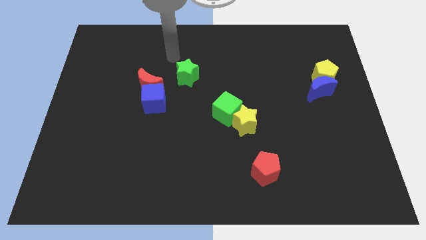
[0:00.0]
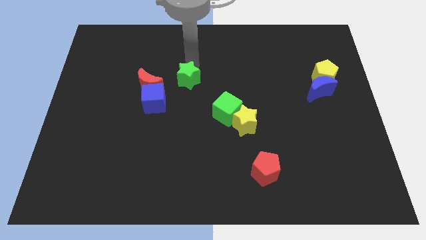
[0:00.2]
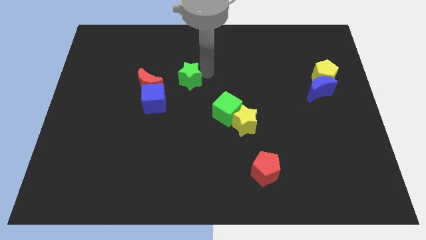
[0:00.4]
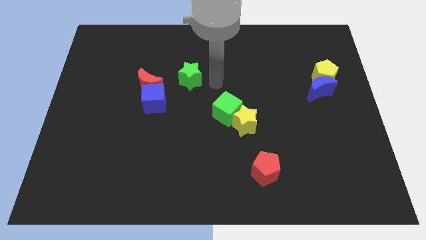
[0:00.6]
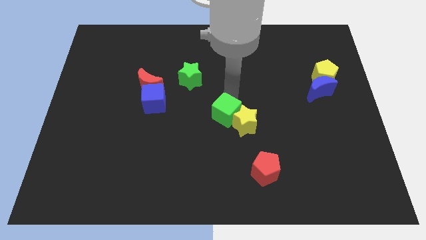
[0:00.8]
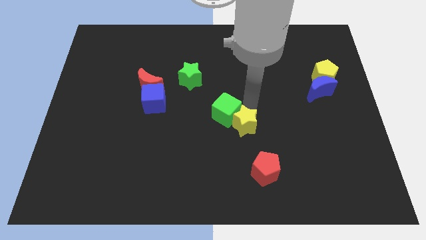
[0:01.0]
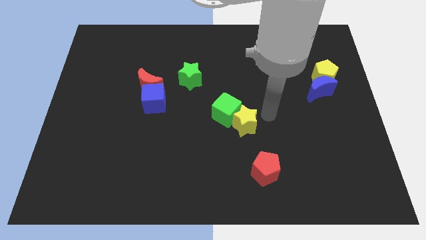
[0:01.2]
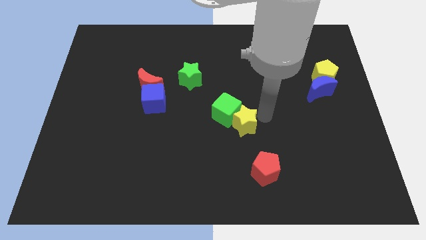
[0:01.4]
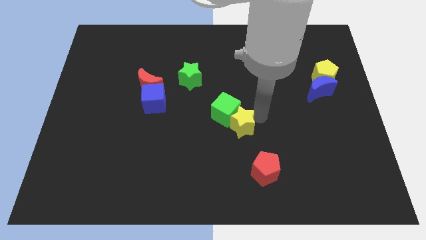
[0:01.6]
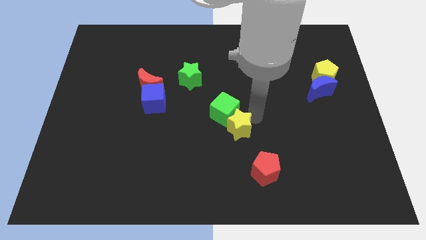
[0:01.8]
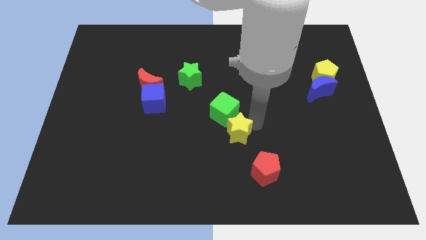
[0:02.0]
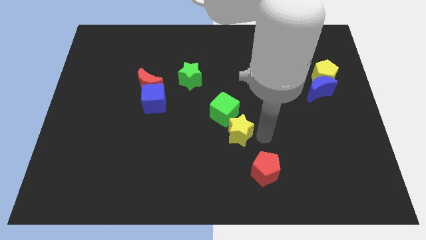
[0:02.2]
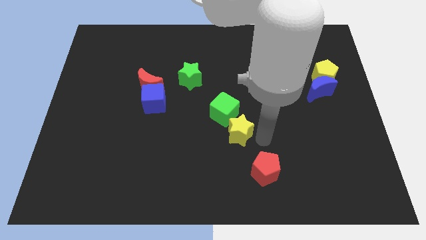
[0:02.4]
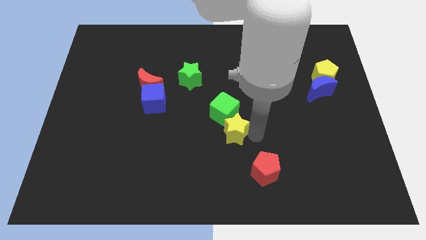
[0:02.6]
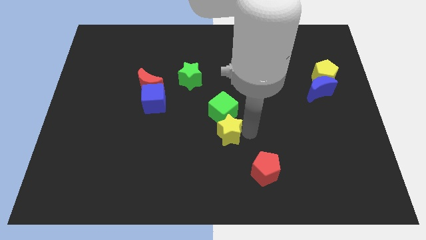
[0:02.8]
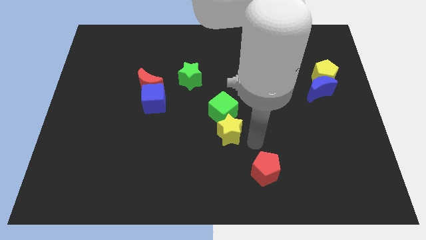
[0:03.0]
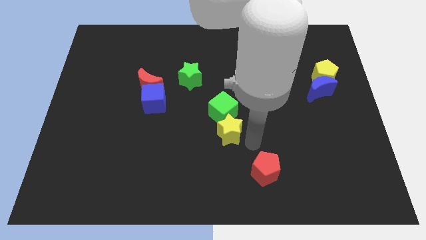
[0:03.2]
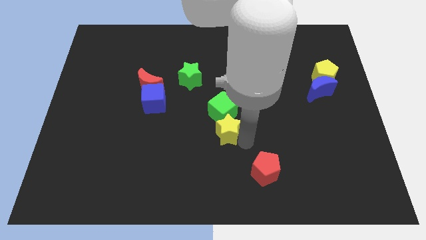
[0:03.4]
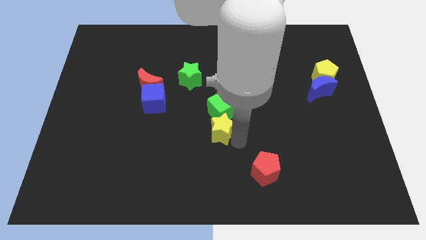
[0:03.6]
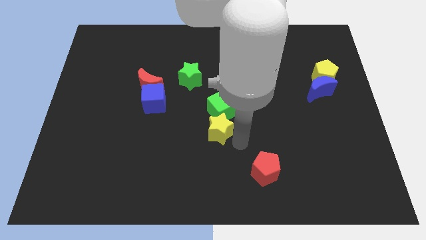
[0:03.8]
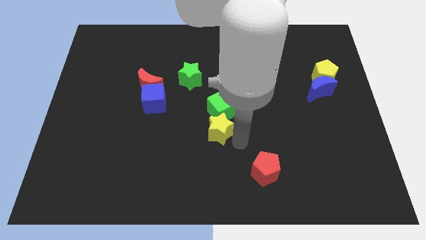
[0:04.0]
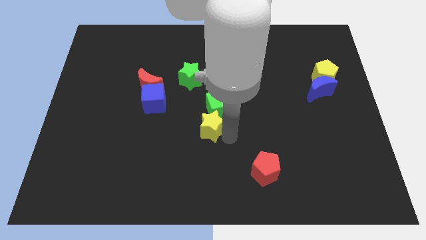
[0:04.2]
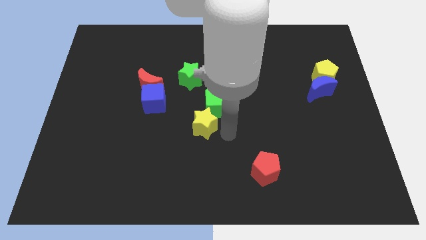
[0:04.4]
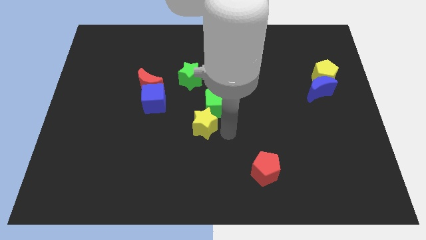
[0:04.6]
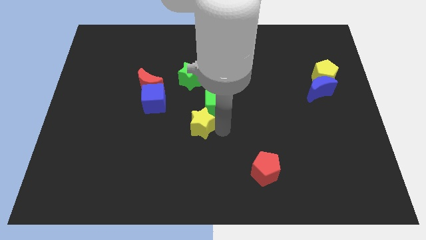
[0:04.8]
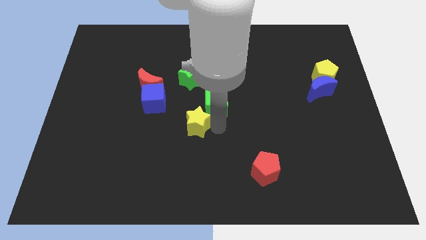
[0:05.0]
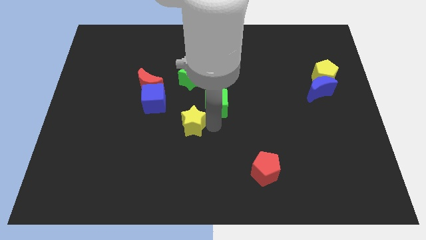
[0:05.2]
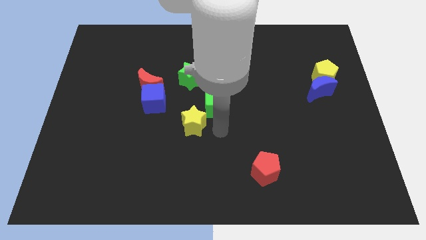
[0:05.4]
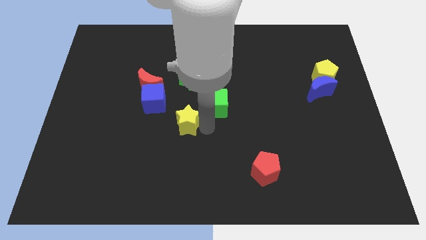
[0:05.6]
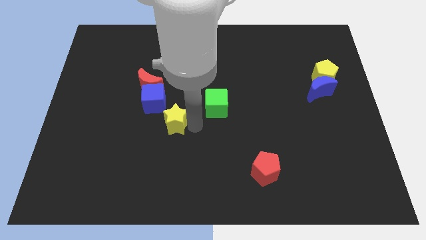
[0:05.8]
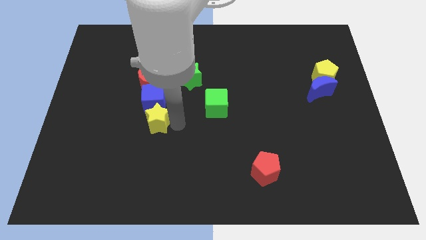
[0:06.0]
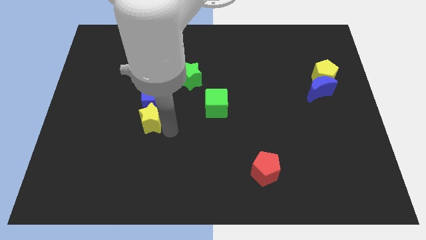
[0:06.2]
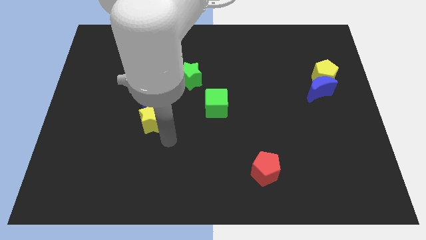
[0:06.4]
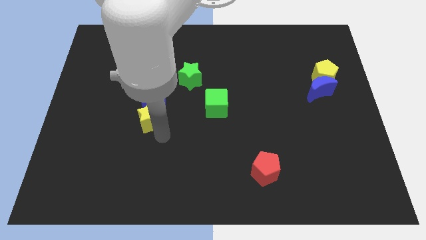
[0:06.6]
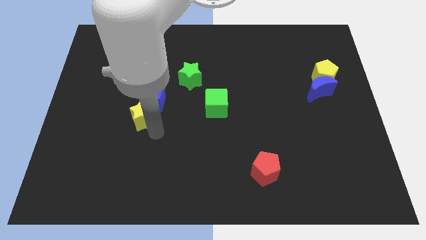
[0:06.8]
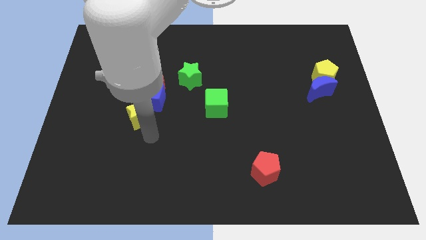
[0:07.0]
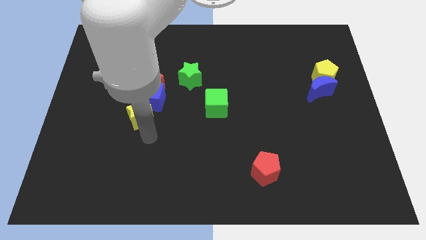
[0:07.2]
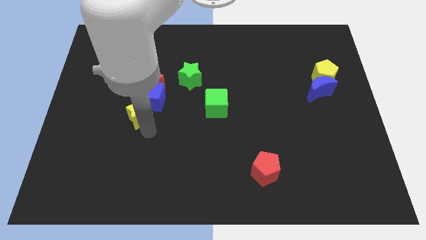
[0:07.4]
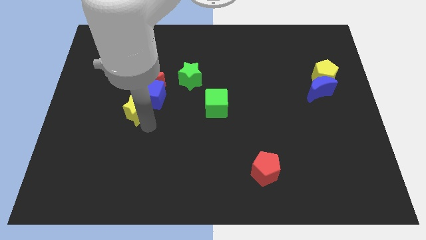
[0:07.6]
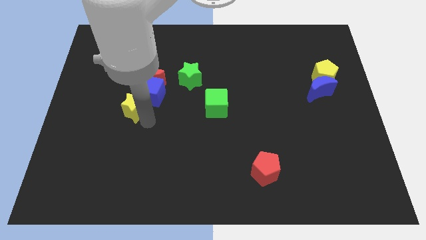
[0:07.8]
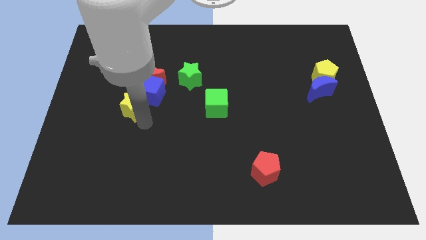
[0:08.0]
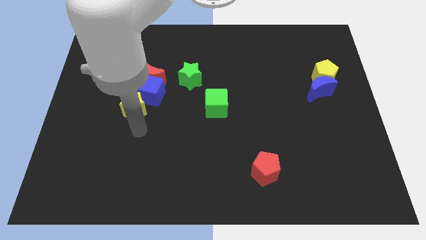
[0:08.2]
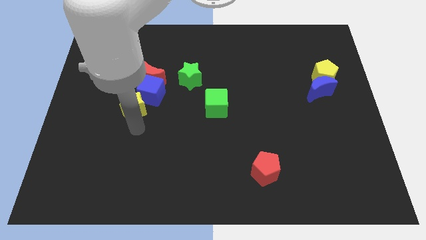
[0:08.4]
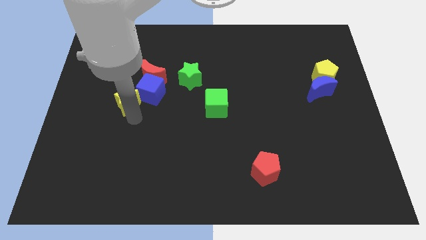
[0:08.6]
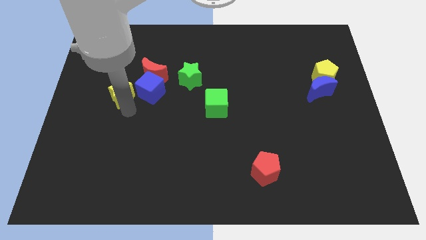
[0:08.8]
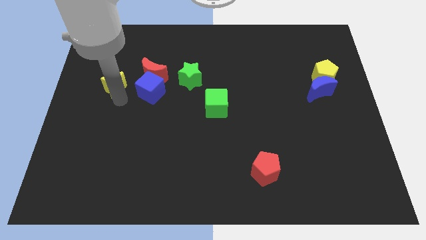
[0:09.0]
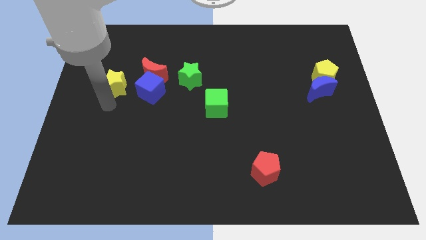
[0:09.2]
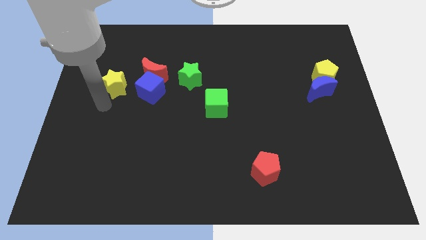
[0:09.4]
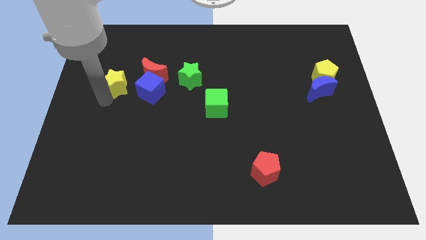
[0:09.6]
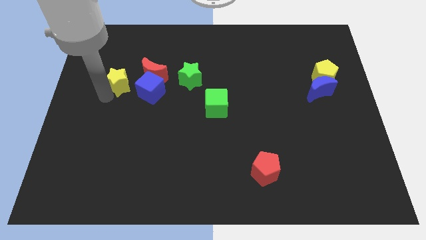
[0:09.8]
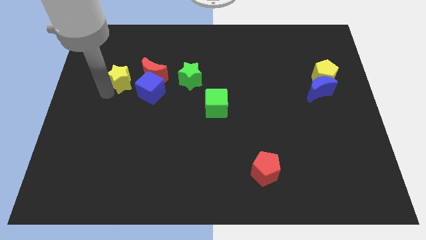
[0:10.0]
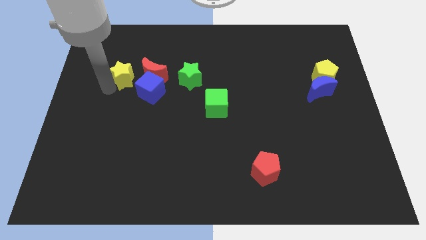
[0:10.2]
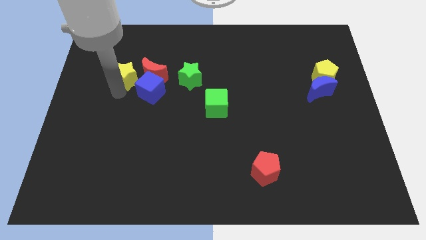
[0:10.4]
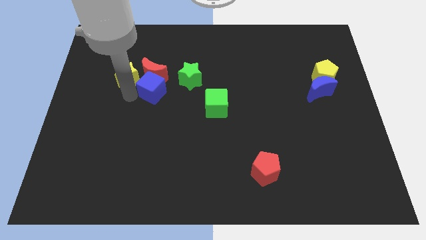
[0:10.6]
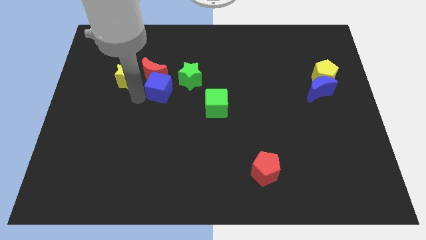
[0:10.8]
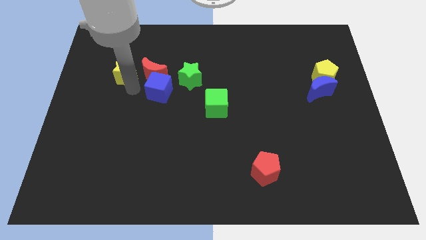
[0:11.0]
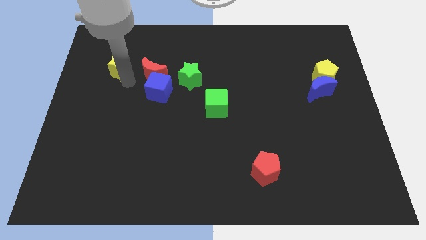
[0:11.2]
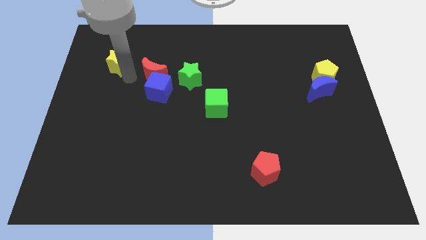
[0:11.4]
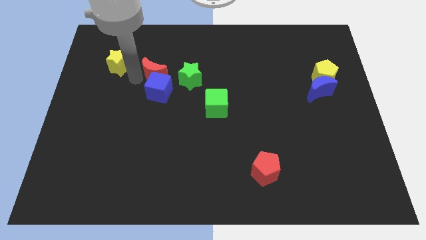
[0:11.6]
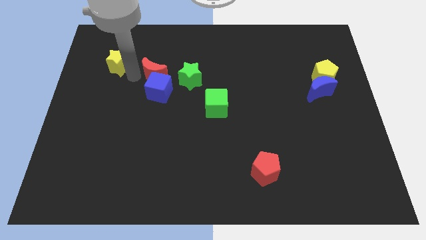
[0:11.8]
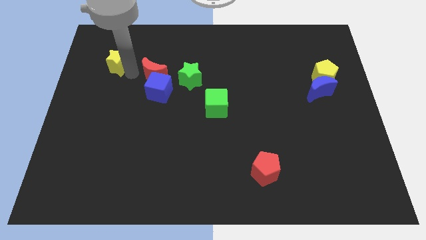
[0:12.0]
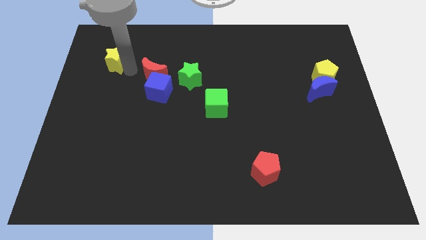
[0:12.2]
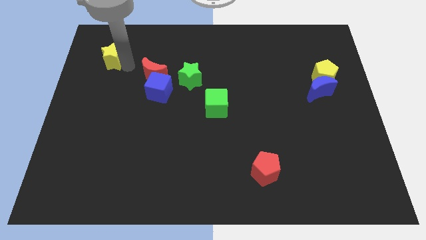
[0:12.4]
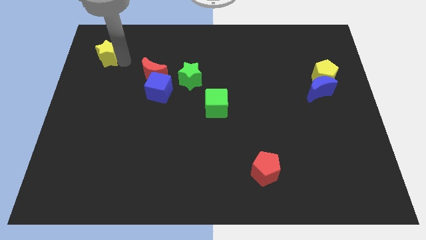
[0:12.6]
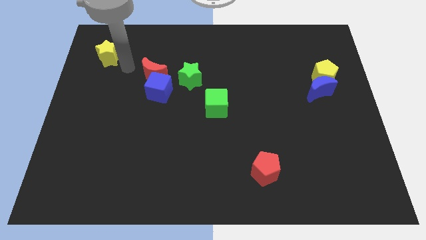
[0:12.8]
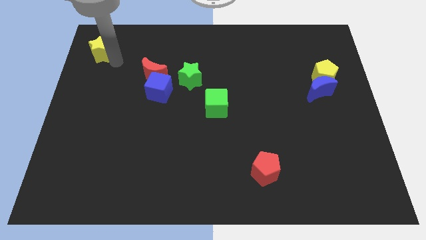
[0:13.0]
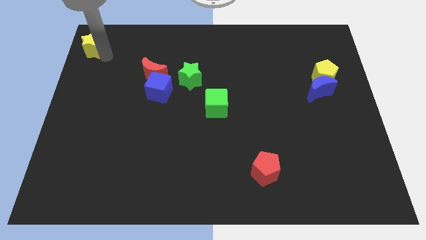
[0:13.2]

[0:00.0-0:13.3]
move the yellow star to the upper left corner

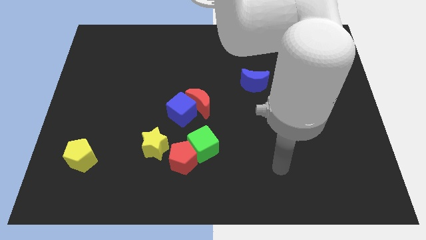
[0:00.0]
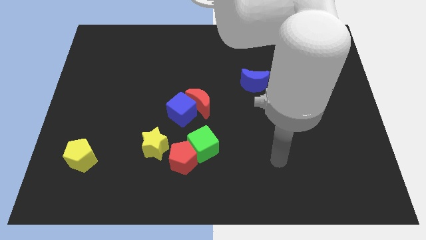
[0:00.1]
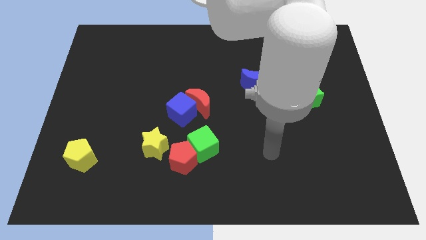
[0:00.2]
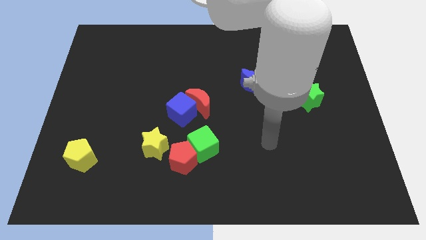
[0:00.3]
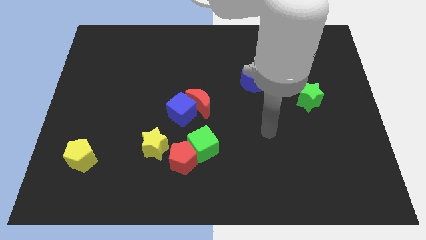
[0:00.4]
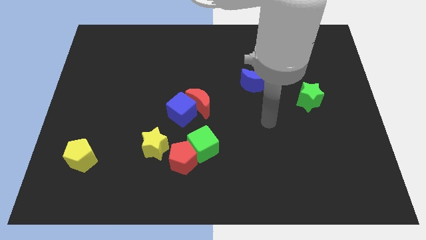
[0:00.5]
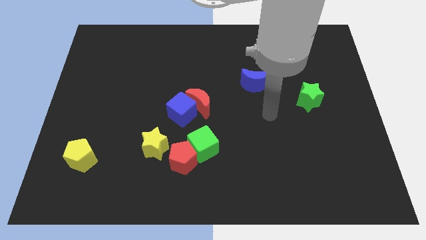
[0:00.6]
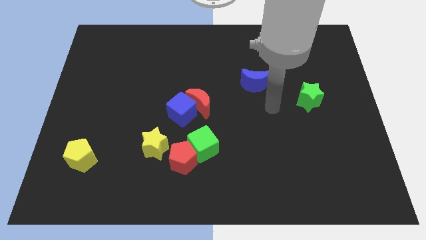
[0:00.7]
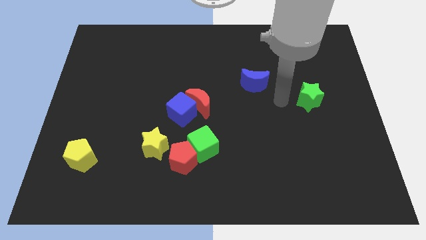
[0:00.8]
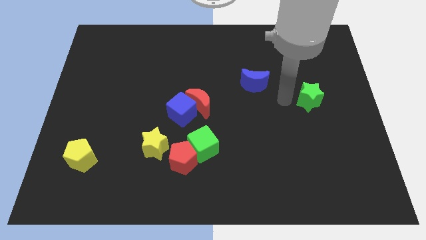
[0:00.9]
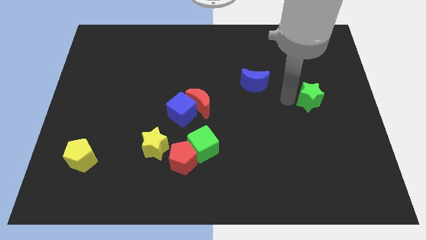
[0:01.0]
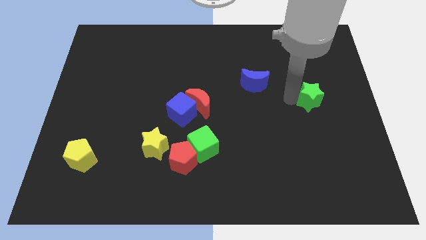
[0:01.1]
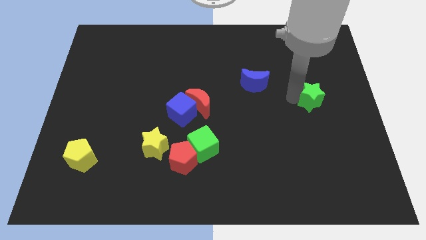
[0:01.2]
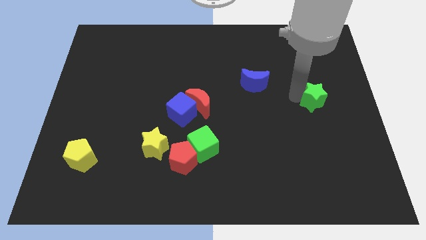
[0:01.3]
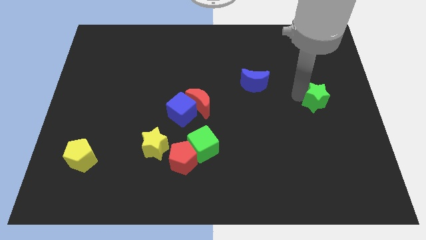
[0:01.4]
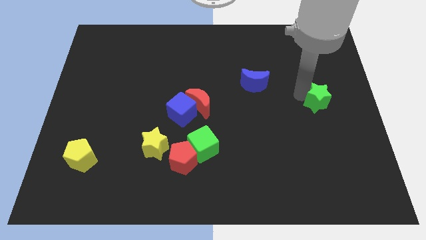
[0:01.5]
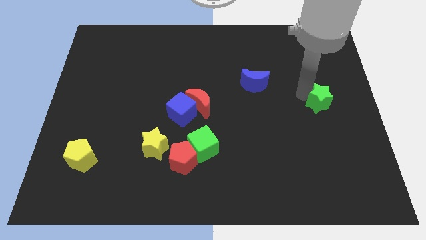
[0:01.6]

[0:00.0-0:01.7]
push the green star to the right side of the board
